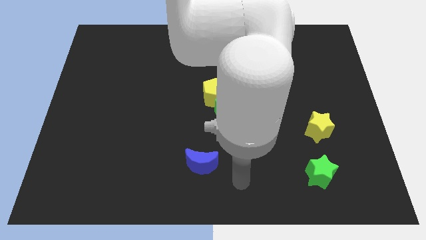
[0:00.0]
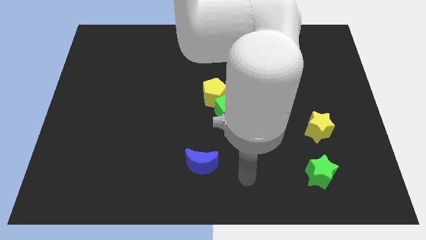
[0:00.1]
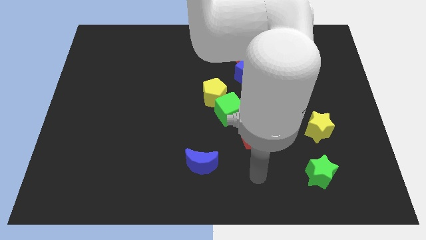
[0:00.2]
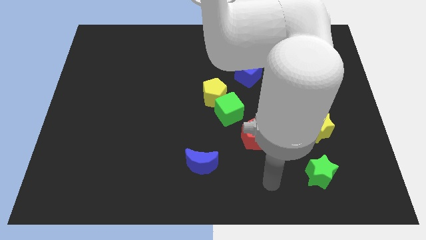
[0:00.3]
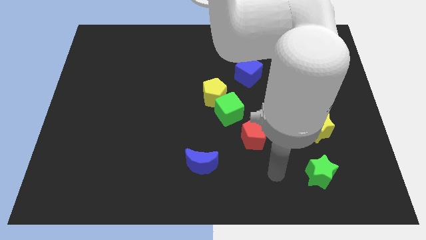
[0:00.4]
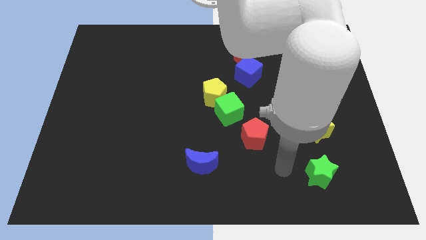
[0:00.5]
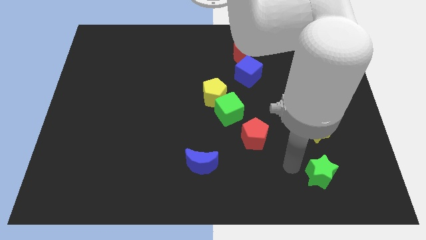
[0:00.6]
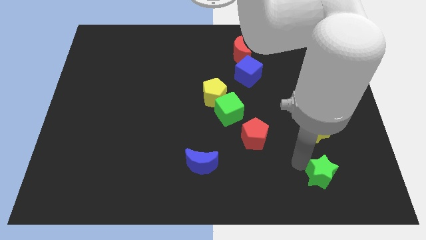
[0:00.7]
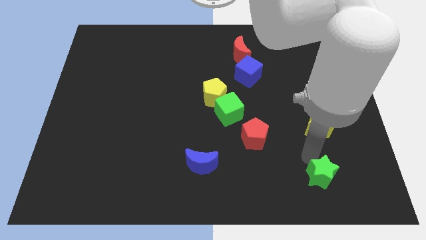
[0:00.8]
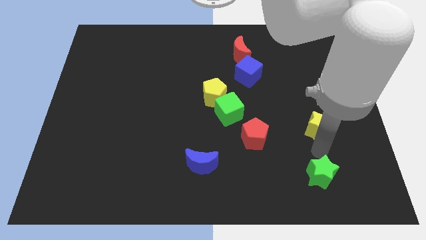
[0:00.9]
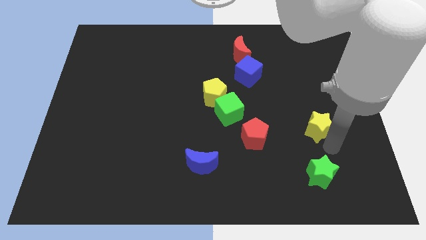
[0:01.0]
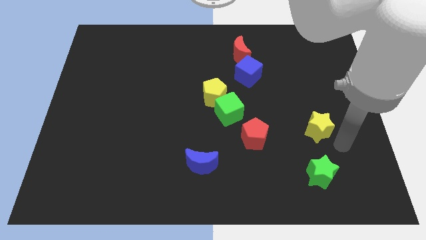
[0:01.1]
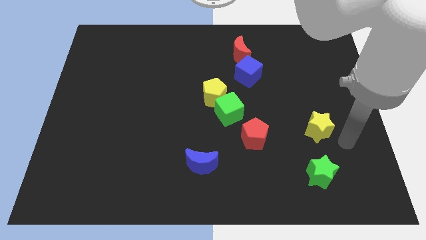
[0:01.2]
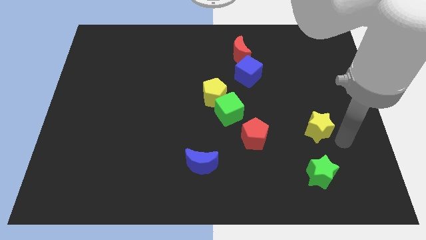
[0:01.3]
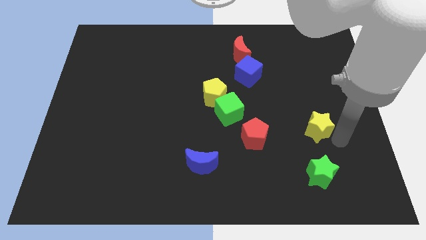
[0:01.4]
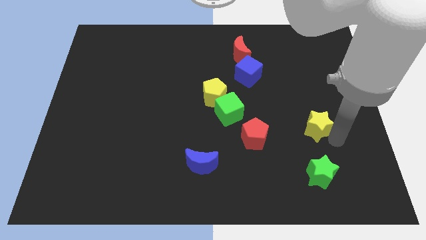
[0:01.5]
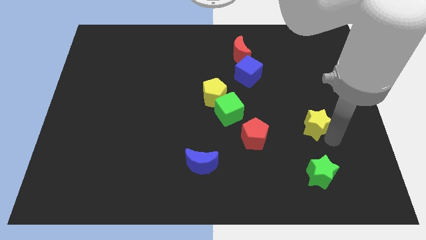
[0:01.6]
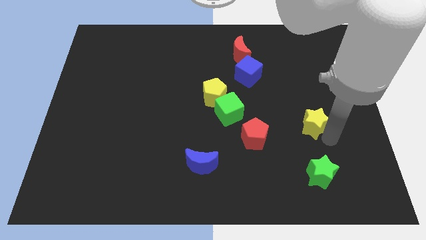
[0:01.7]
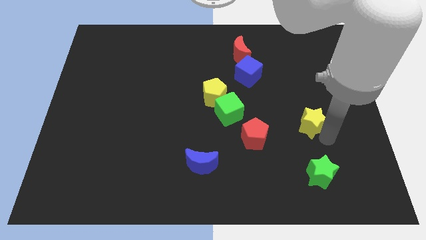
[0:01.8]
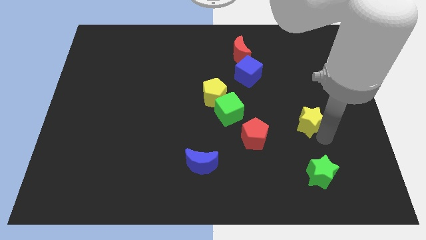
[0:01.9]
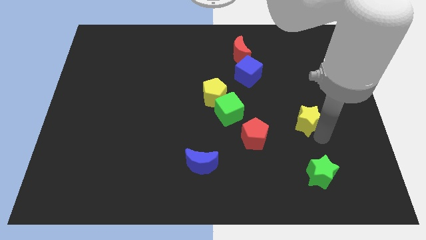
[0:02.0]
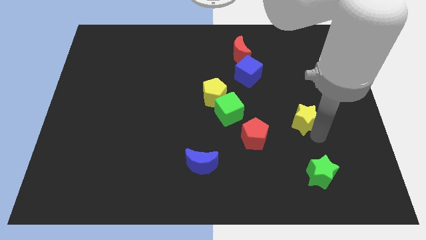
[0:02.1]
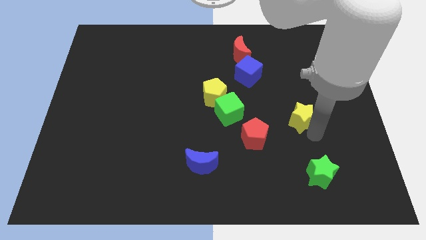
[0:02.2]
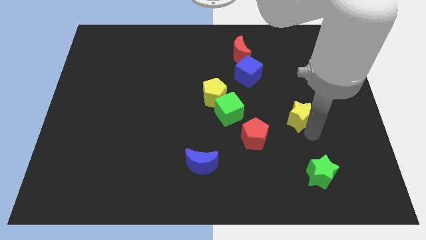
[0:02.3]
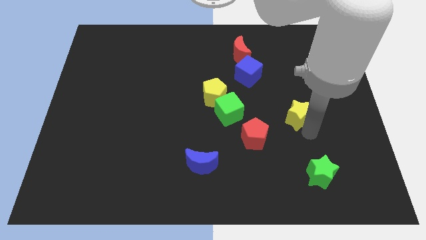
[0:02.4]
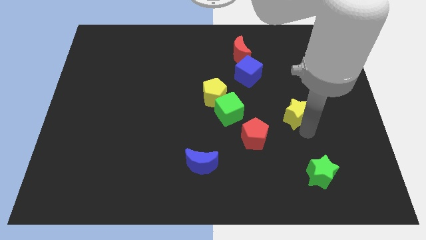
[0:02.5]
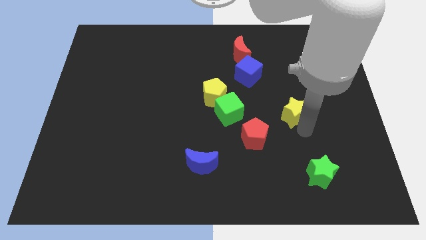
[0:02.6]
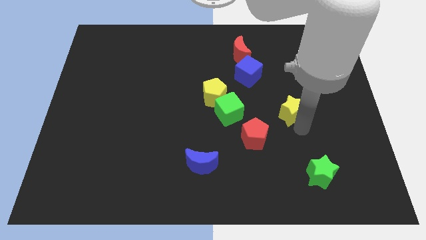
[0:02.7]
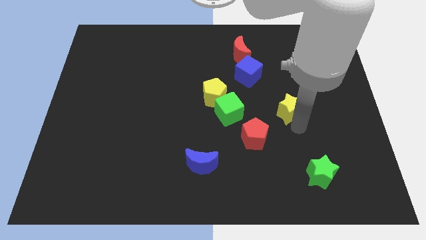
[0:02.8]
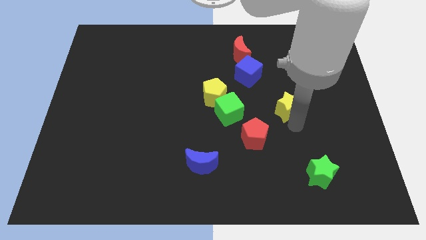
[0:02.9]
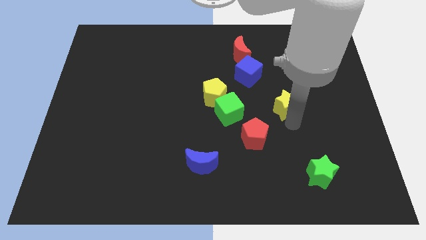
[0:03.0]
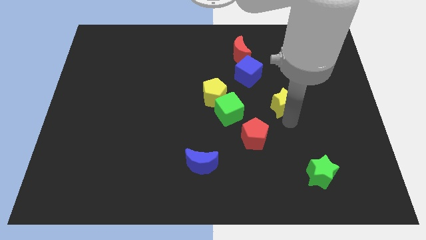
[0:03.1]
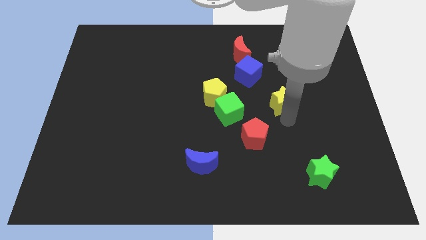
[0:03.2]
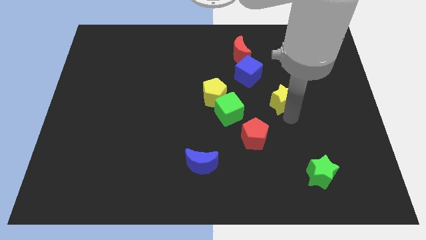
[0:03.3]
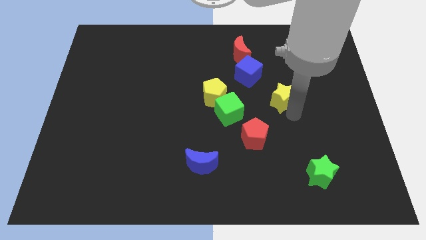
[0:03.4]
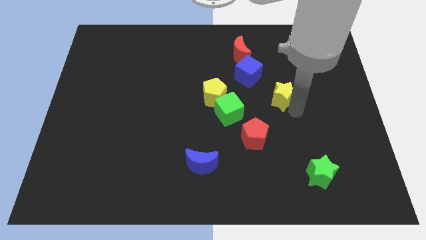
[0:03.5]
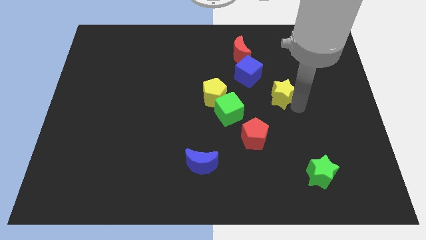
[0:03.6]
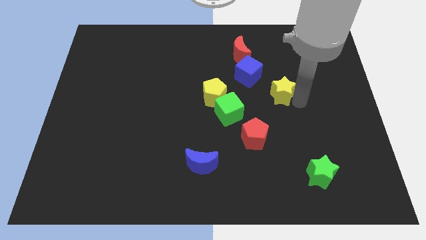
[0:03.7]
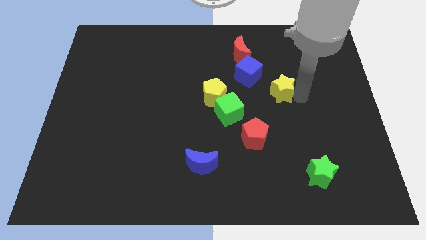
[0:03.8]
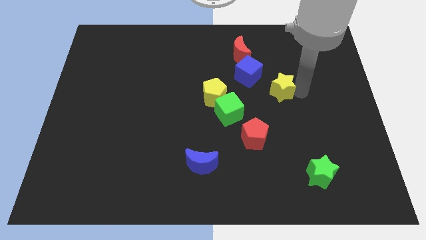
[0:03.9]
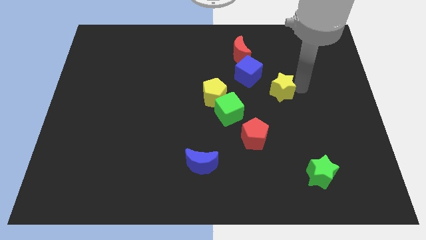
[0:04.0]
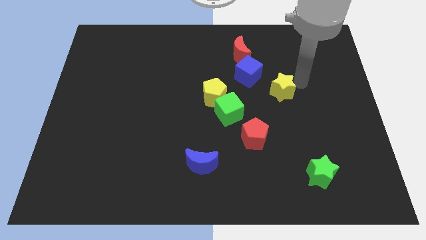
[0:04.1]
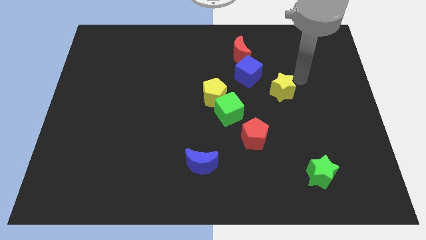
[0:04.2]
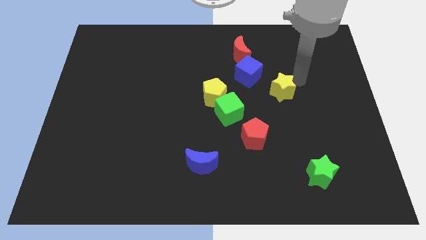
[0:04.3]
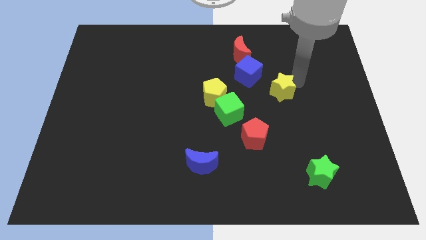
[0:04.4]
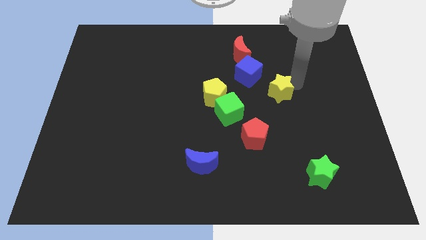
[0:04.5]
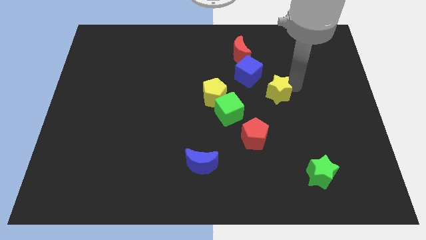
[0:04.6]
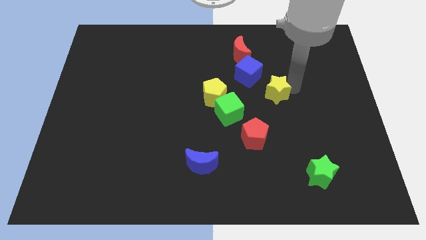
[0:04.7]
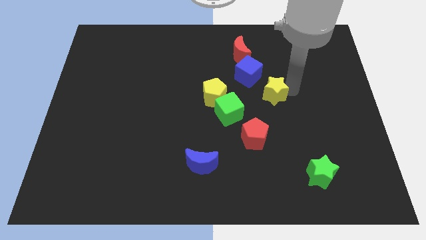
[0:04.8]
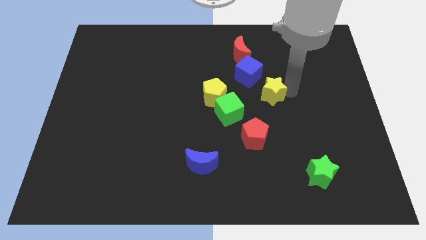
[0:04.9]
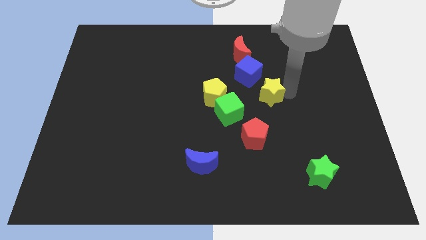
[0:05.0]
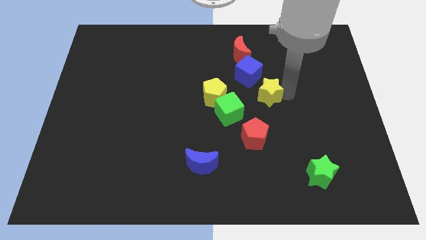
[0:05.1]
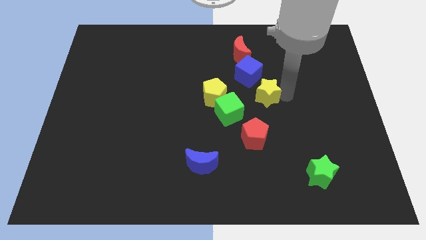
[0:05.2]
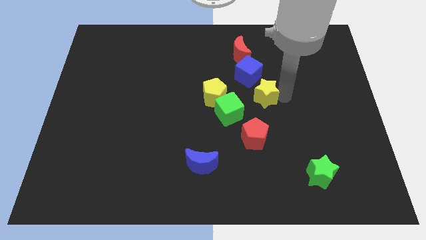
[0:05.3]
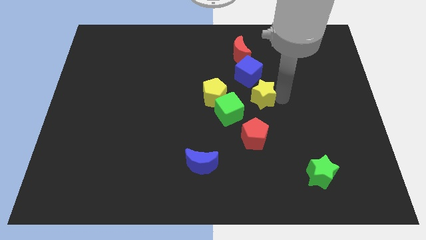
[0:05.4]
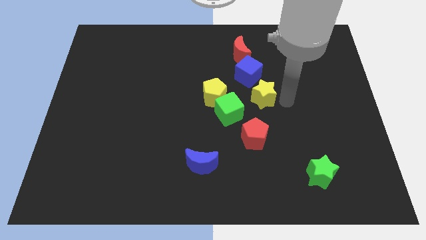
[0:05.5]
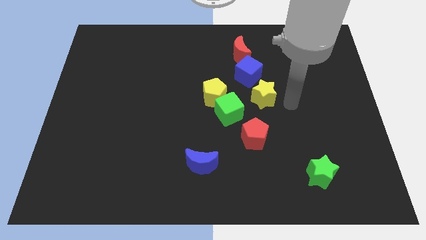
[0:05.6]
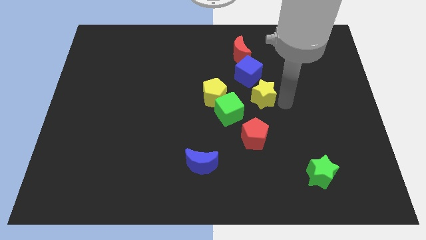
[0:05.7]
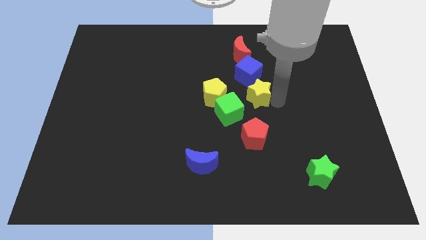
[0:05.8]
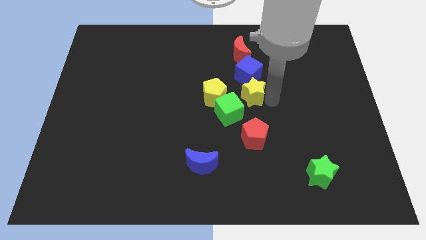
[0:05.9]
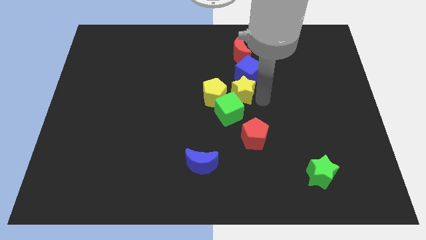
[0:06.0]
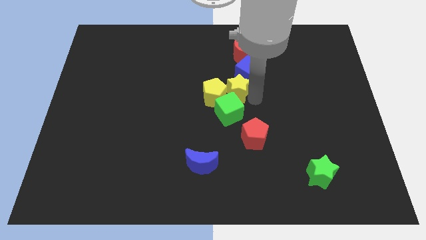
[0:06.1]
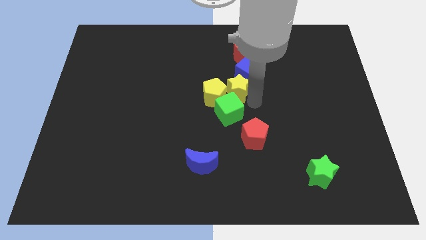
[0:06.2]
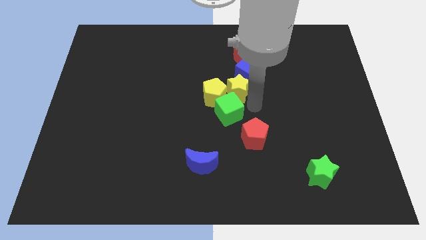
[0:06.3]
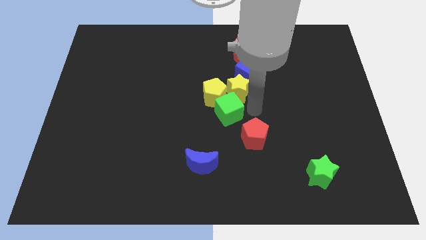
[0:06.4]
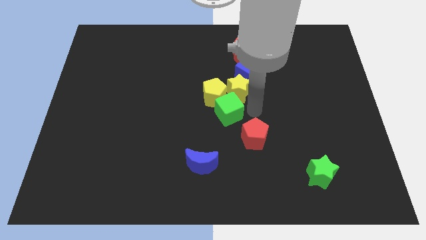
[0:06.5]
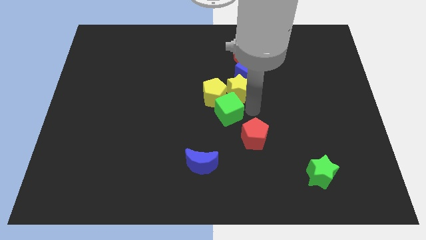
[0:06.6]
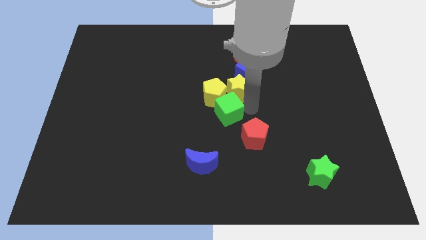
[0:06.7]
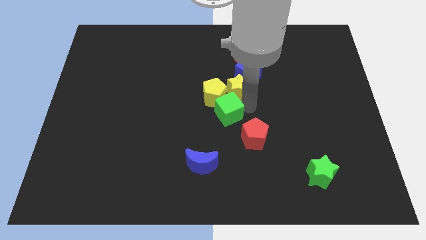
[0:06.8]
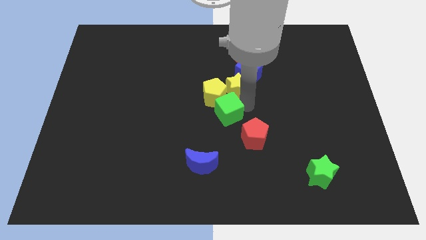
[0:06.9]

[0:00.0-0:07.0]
push the yellow star upwards and left diagonally

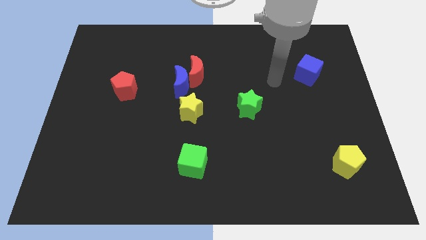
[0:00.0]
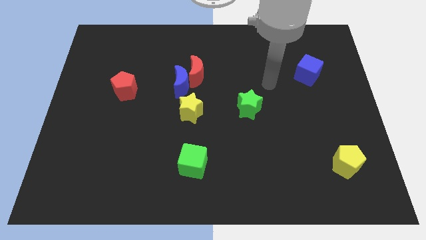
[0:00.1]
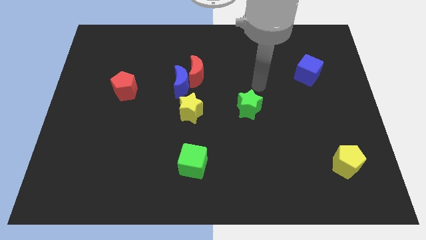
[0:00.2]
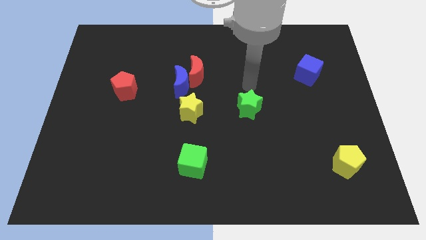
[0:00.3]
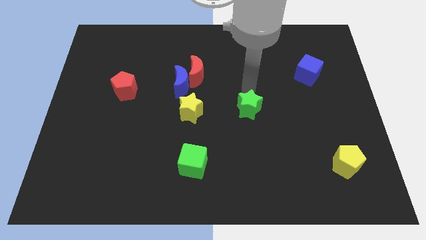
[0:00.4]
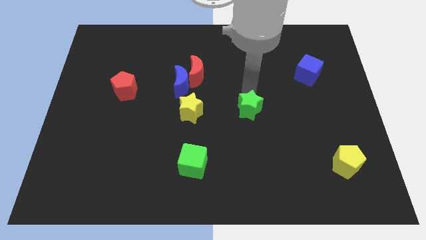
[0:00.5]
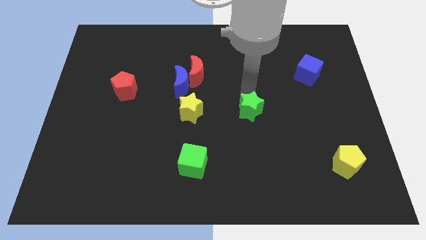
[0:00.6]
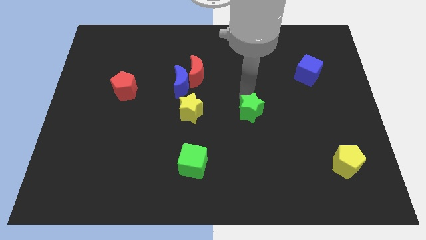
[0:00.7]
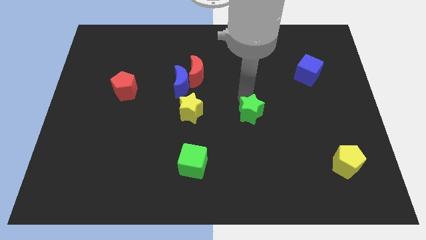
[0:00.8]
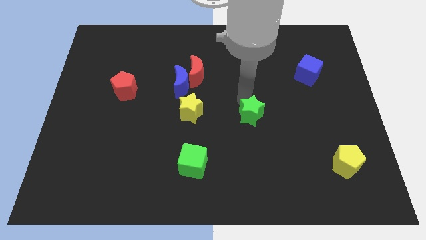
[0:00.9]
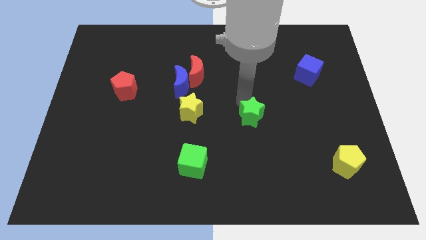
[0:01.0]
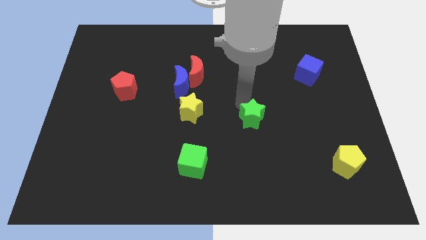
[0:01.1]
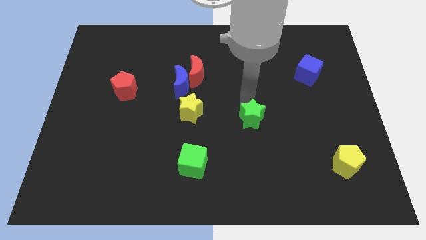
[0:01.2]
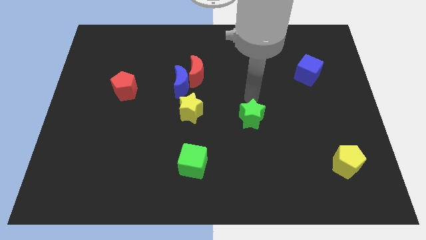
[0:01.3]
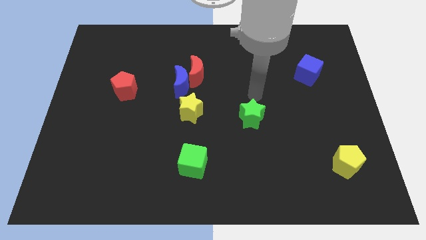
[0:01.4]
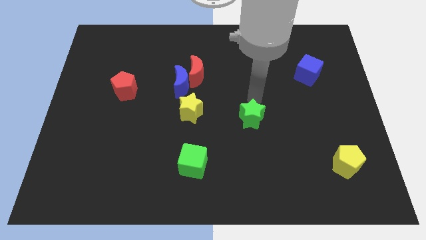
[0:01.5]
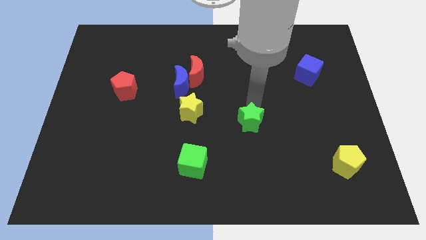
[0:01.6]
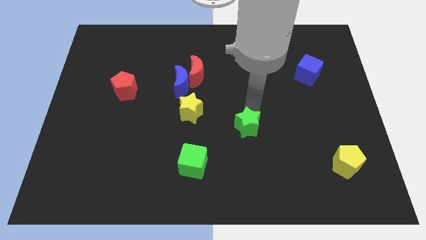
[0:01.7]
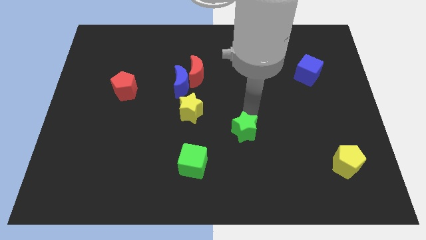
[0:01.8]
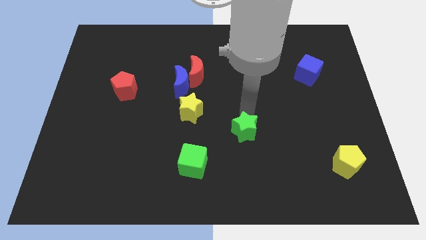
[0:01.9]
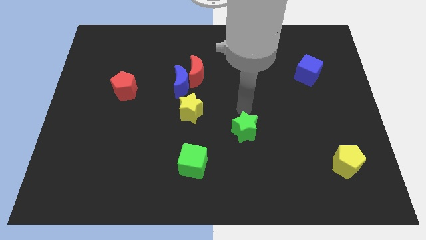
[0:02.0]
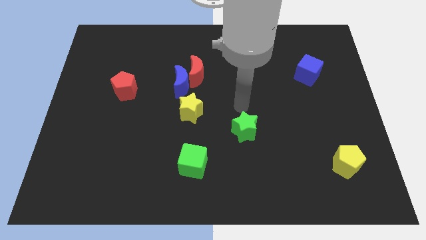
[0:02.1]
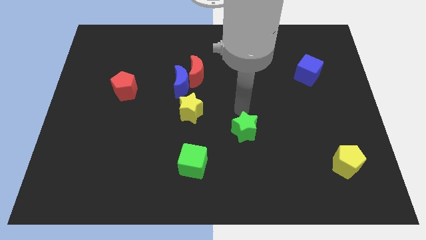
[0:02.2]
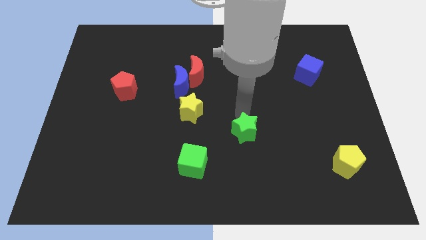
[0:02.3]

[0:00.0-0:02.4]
slightly push the green star down
